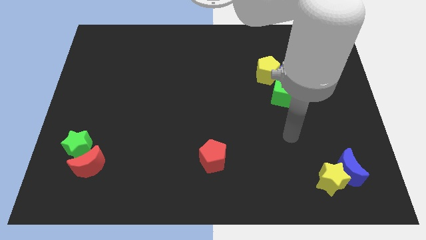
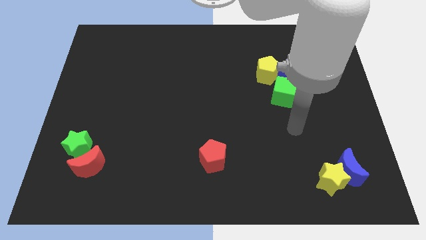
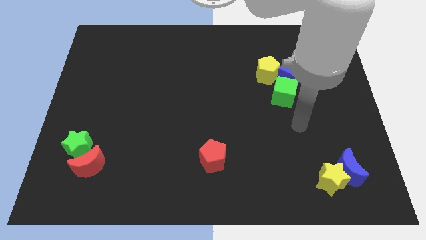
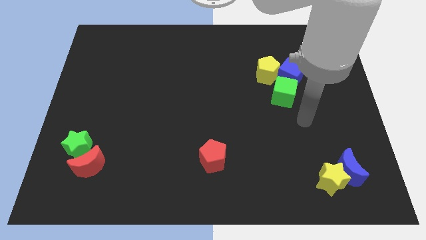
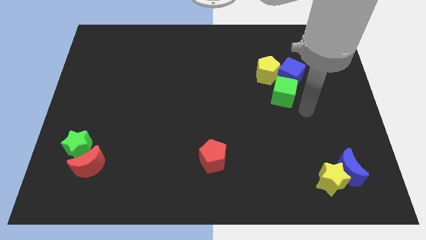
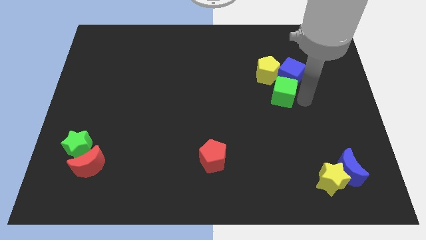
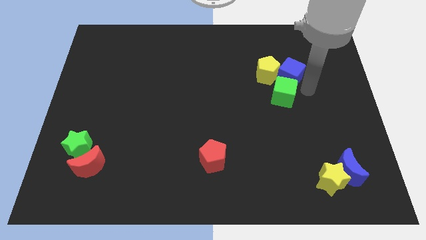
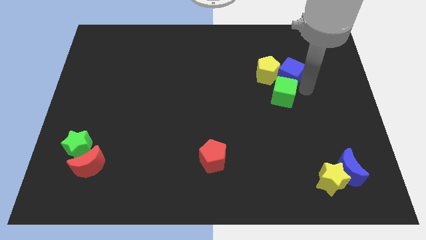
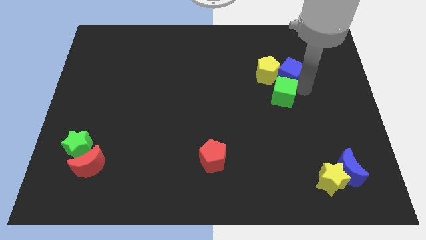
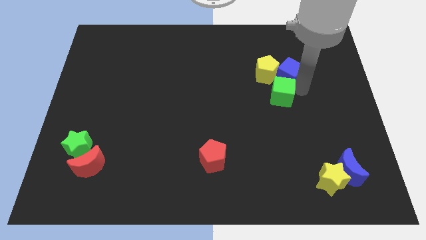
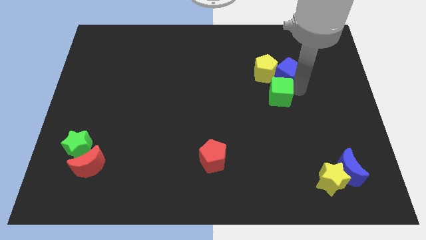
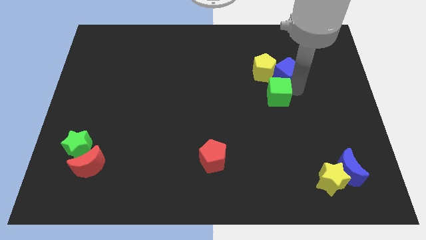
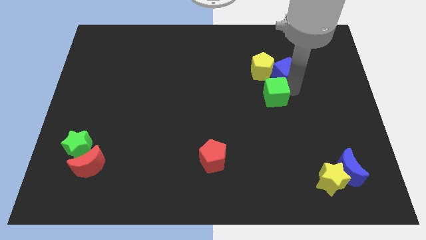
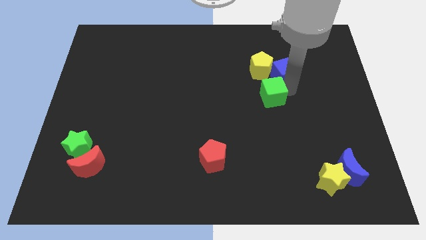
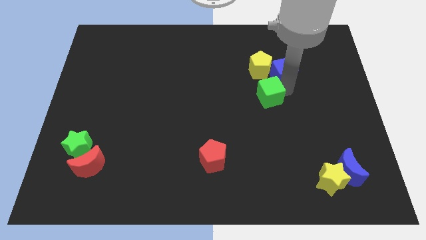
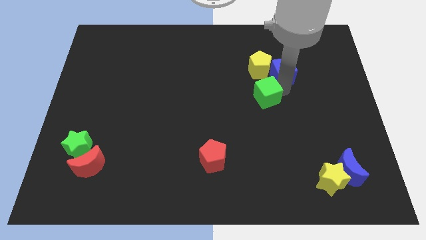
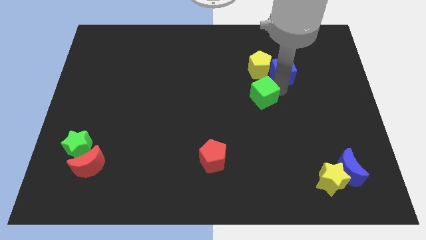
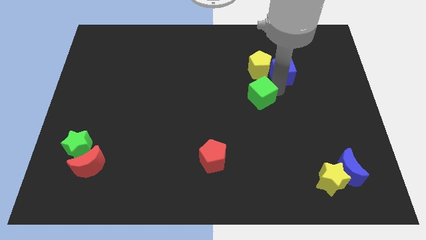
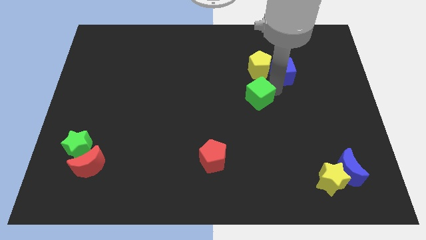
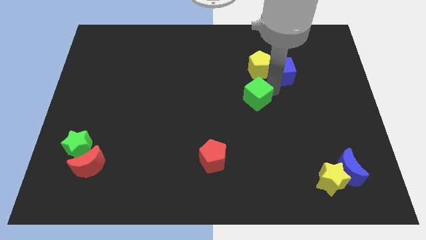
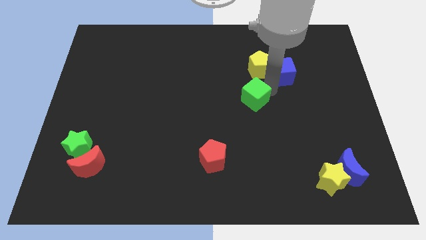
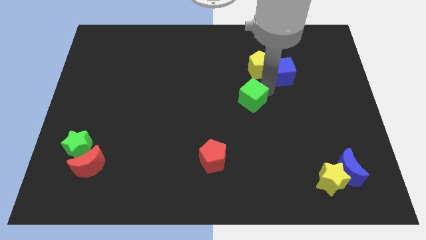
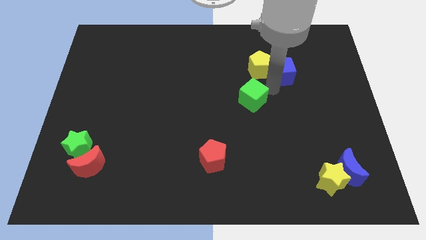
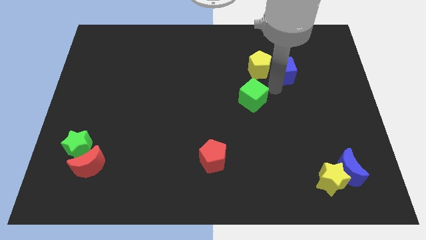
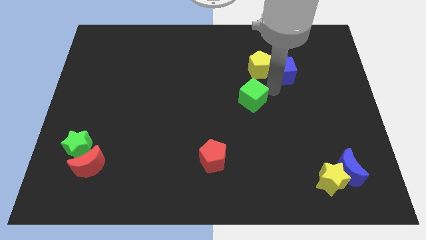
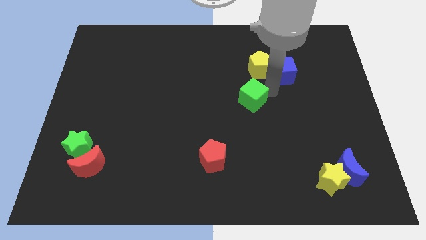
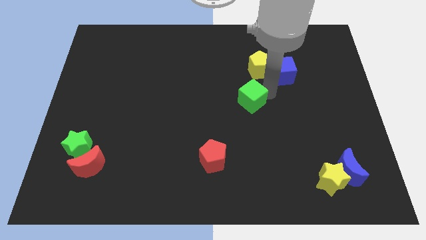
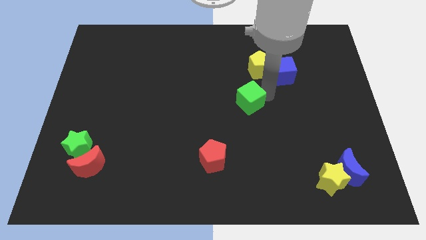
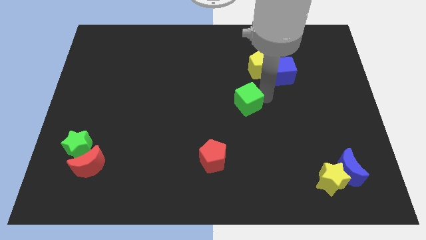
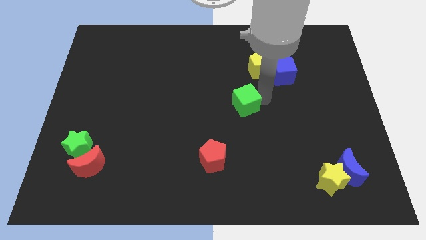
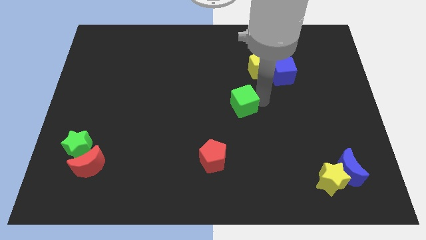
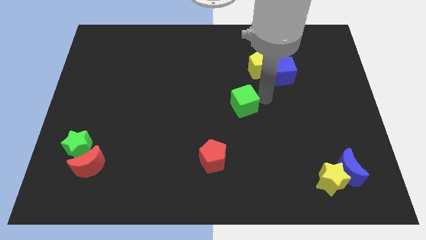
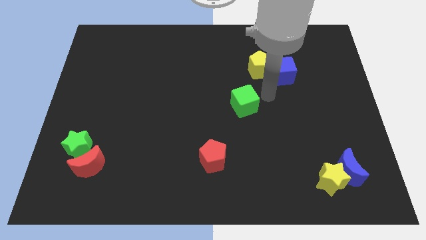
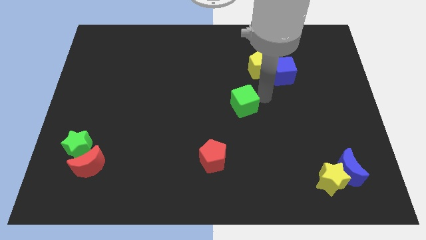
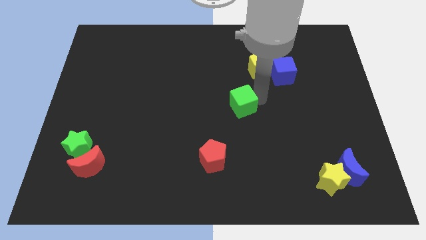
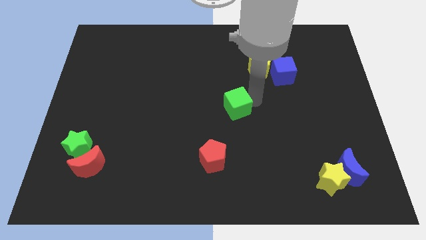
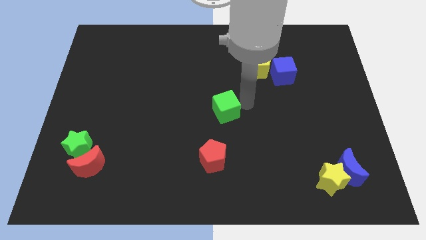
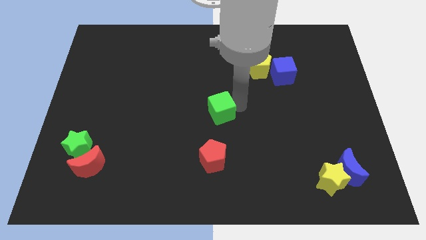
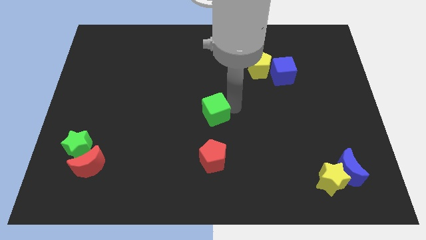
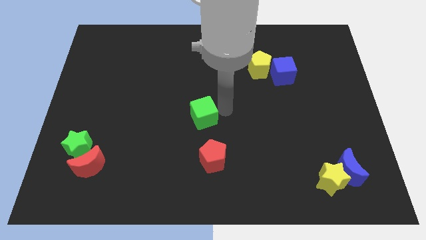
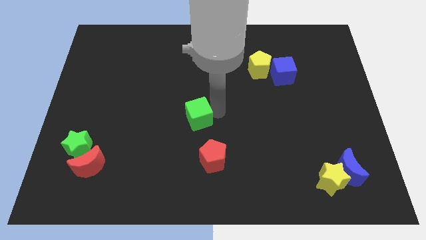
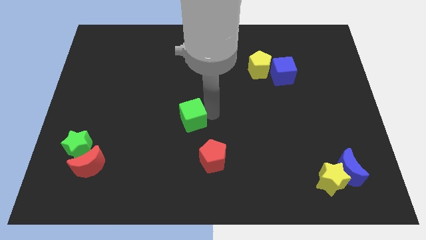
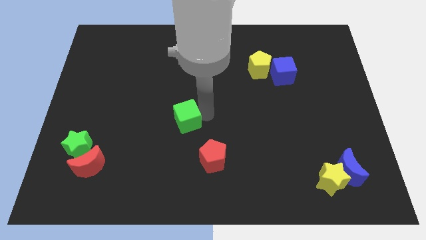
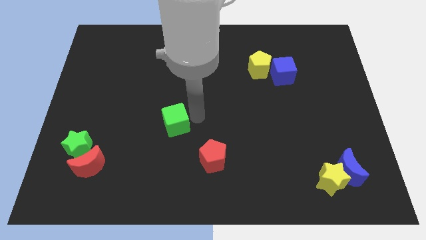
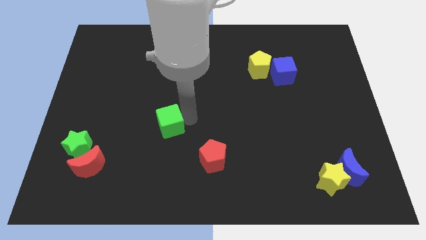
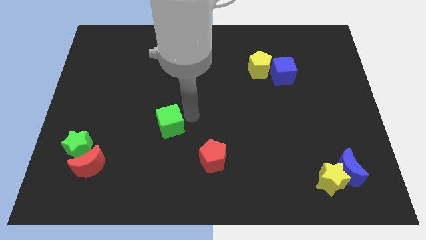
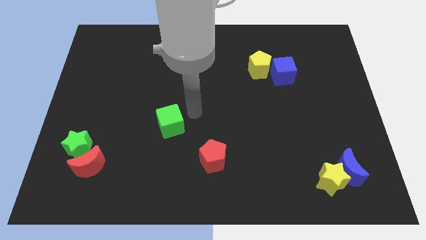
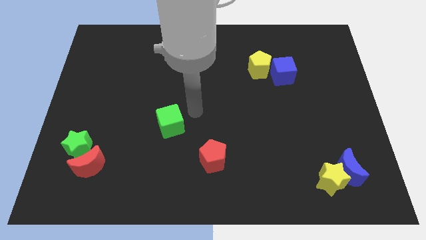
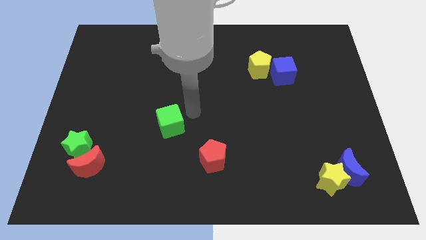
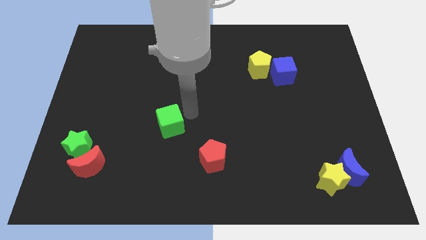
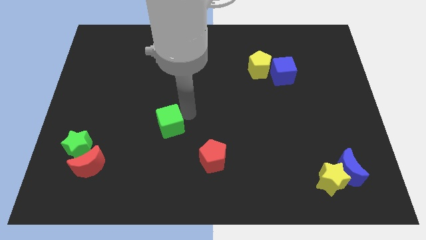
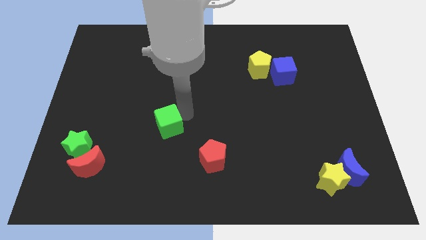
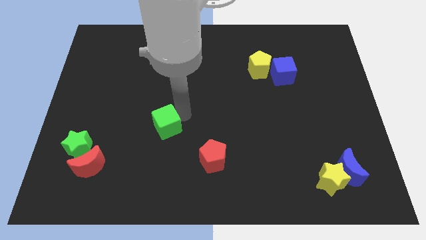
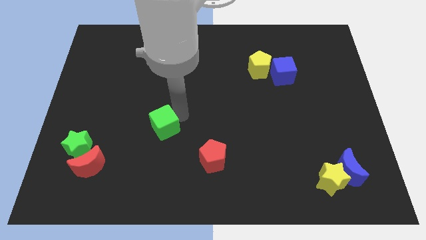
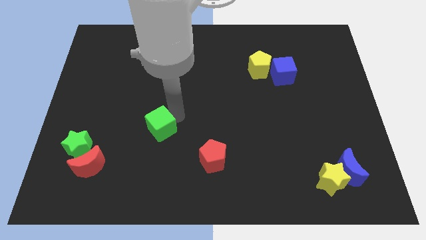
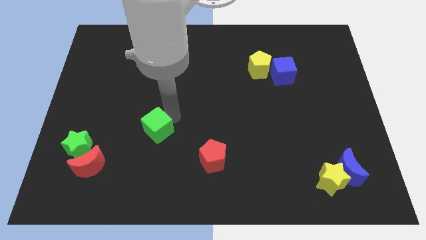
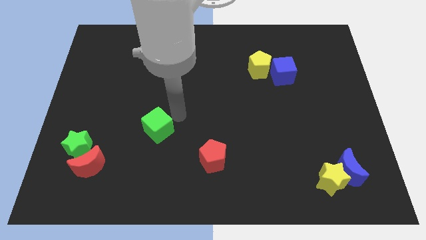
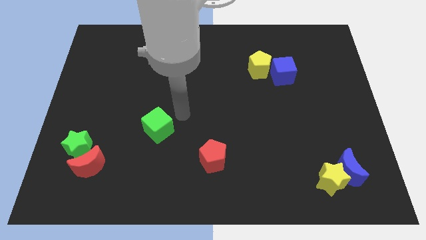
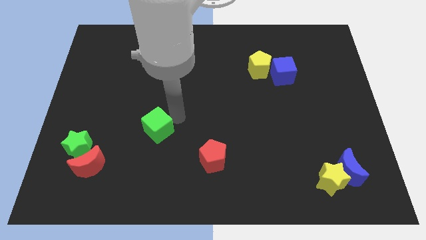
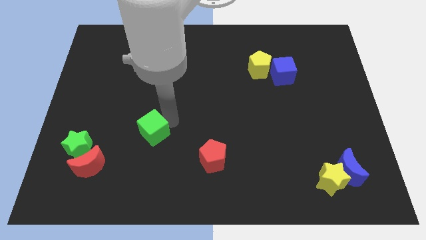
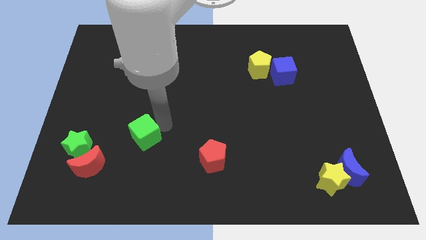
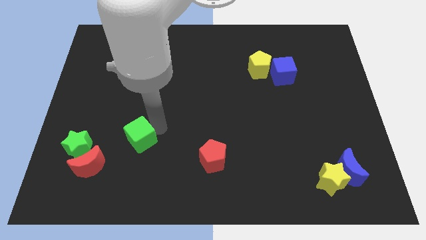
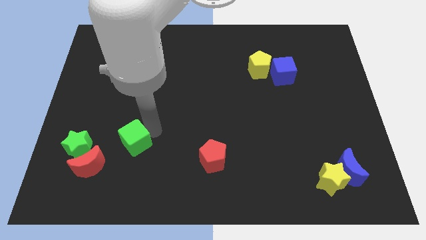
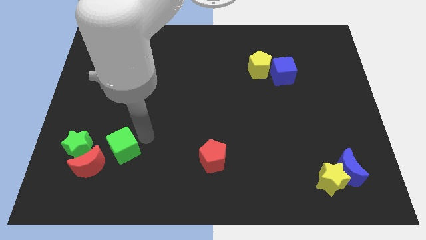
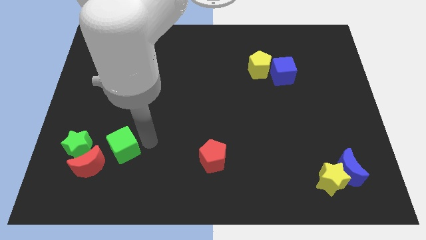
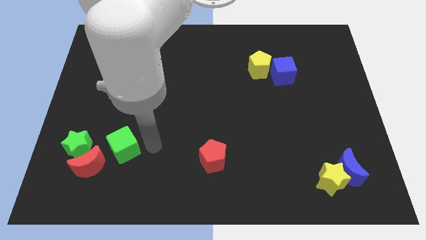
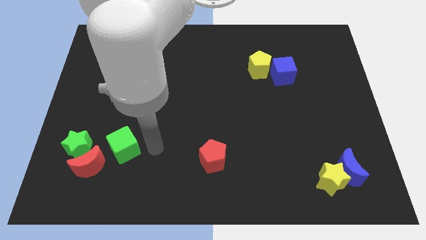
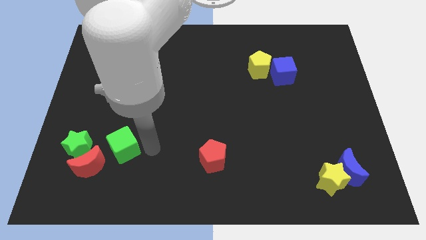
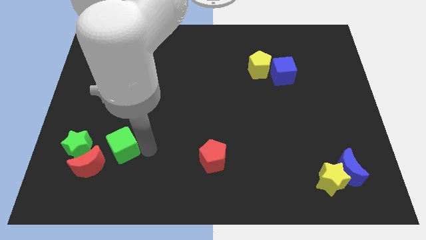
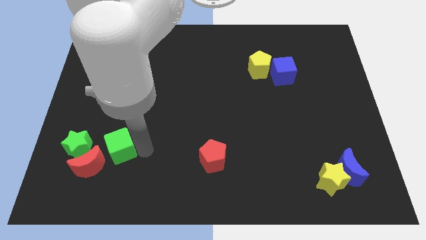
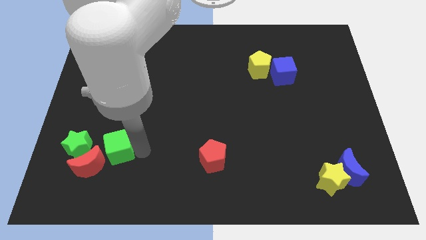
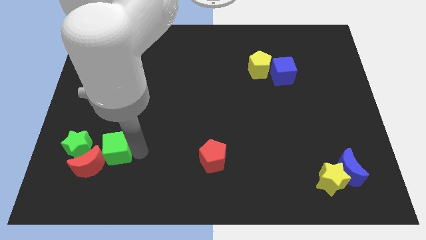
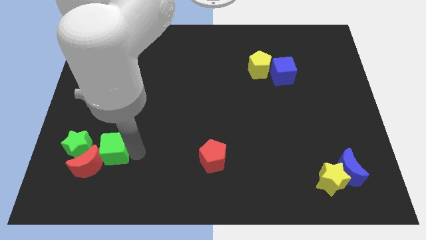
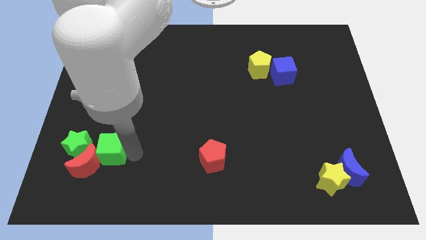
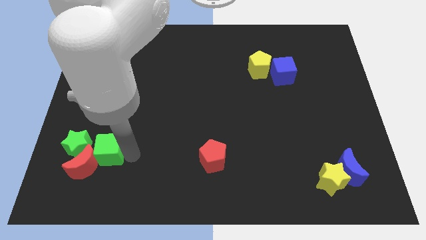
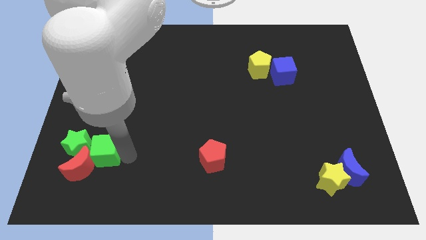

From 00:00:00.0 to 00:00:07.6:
move the green cube to the green star
